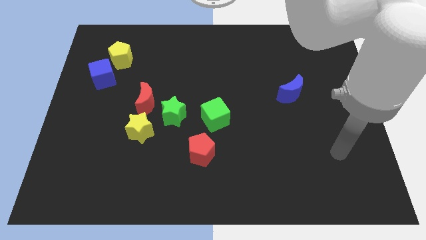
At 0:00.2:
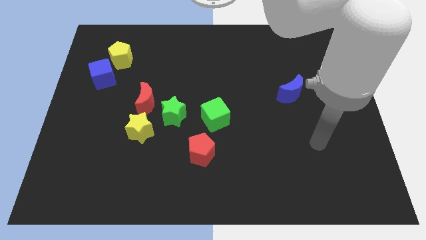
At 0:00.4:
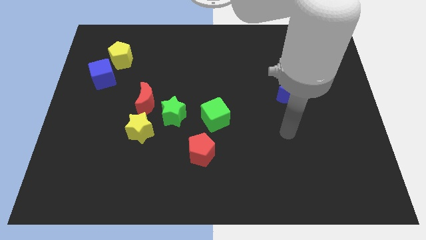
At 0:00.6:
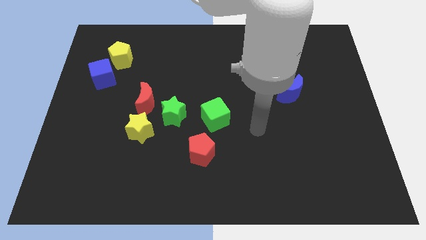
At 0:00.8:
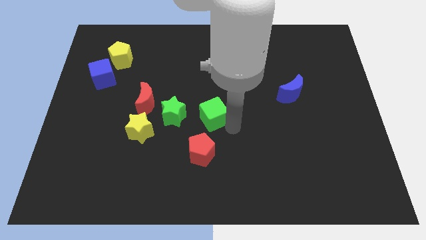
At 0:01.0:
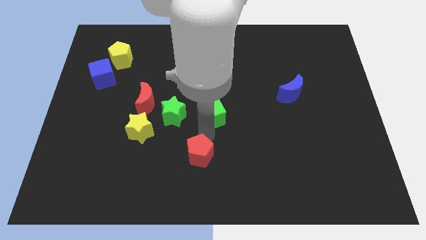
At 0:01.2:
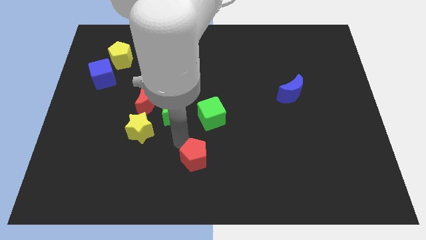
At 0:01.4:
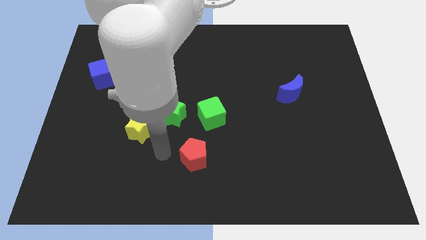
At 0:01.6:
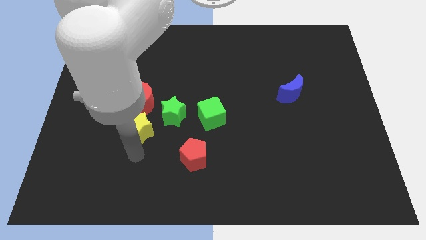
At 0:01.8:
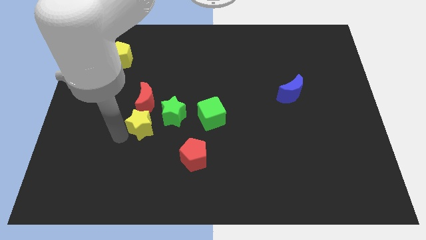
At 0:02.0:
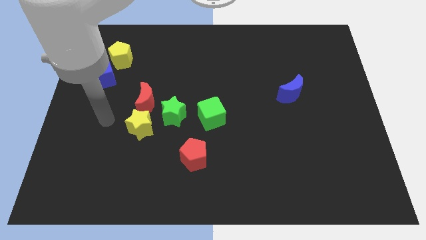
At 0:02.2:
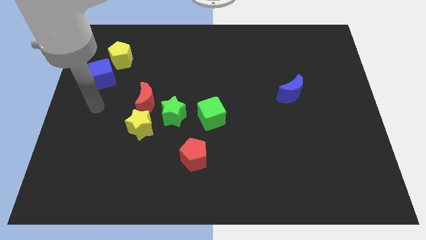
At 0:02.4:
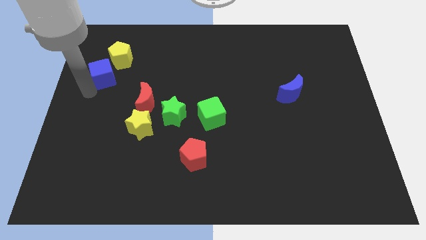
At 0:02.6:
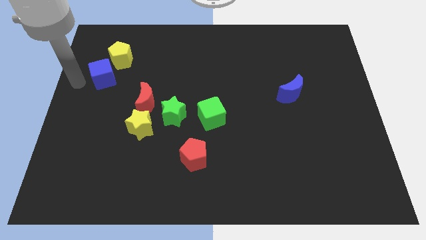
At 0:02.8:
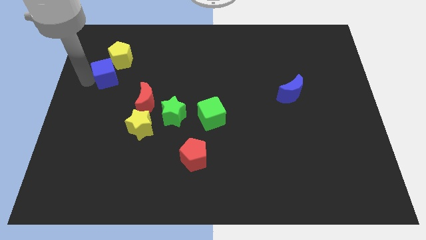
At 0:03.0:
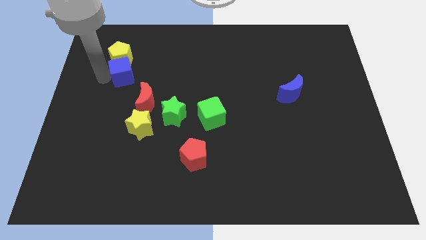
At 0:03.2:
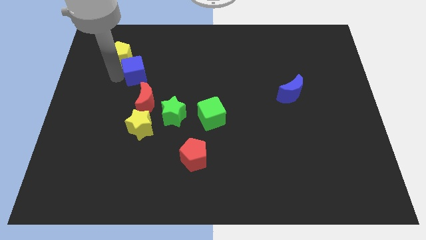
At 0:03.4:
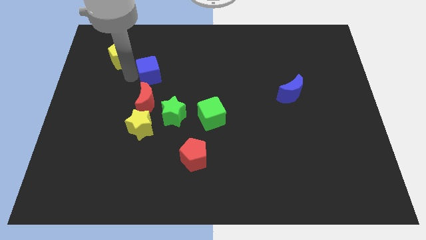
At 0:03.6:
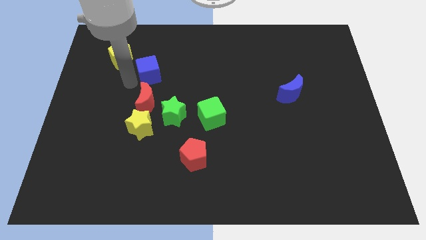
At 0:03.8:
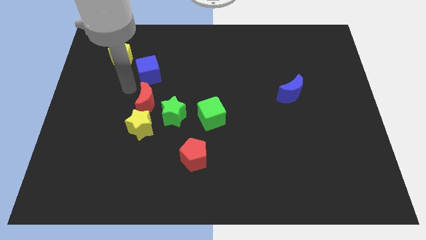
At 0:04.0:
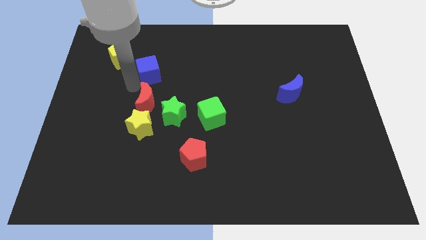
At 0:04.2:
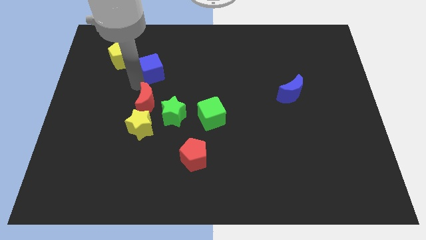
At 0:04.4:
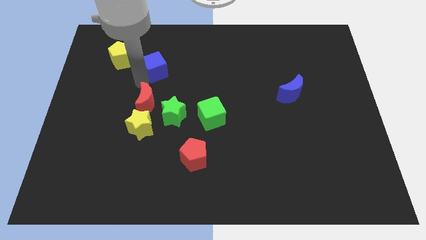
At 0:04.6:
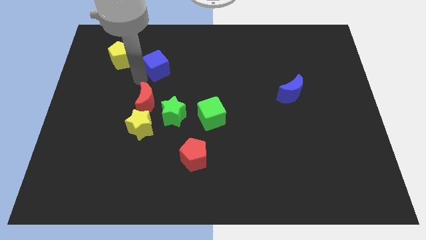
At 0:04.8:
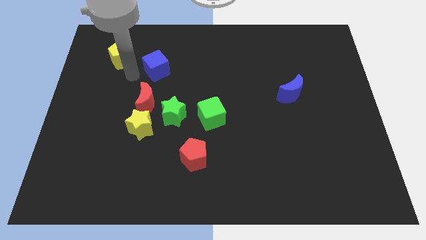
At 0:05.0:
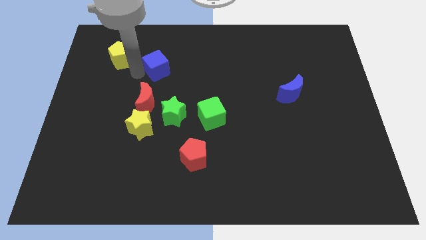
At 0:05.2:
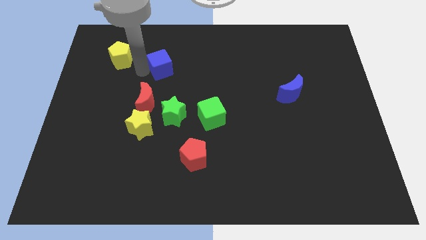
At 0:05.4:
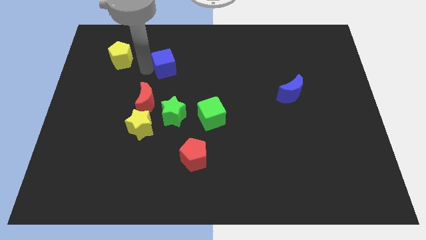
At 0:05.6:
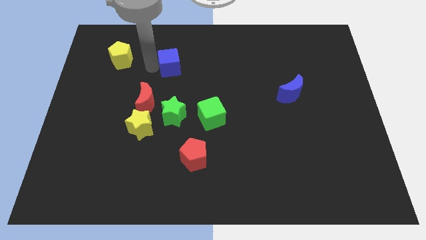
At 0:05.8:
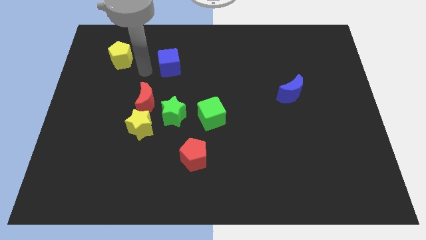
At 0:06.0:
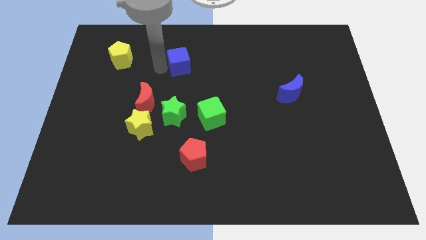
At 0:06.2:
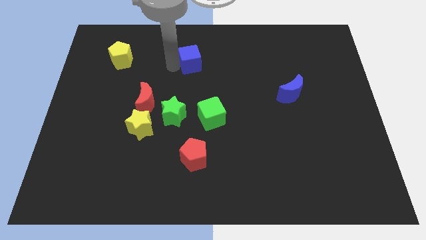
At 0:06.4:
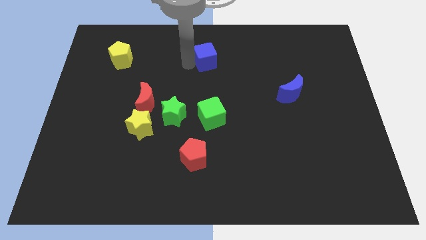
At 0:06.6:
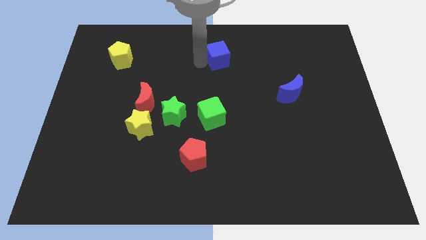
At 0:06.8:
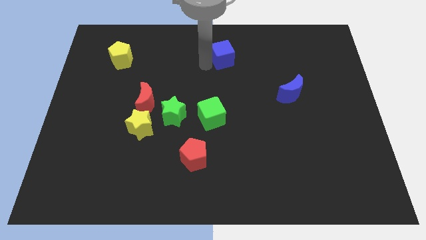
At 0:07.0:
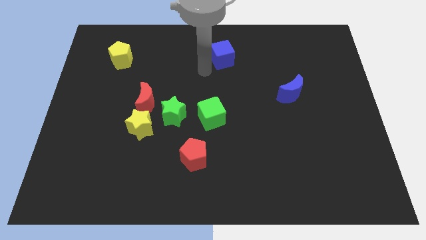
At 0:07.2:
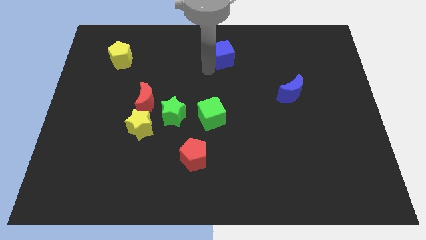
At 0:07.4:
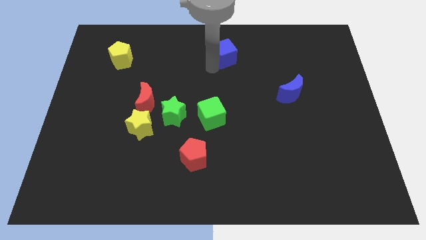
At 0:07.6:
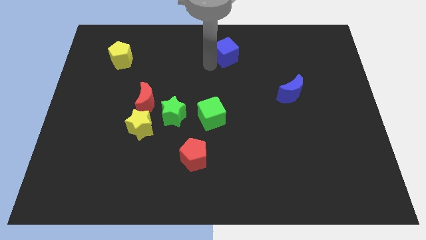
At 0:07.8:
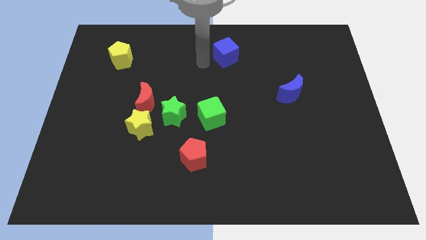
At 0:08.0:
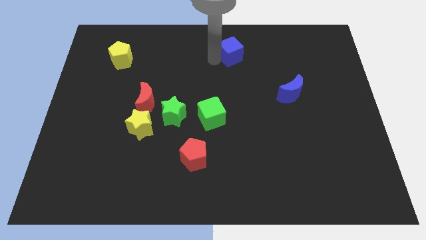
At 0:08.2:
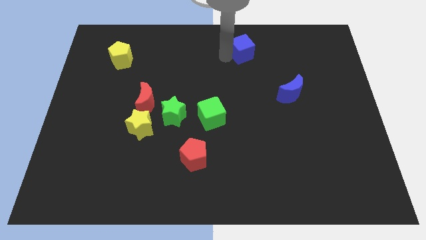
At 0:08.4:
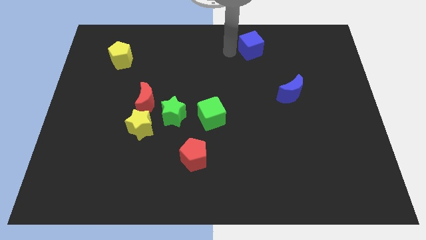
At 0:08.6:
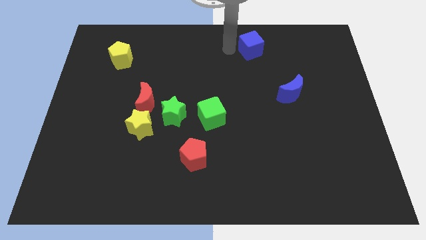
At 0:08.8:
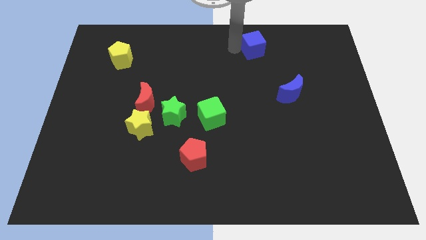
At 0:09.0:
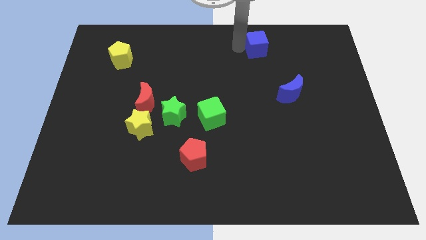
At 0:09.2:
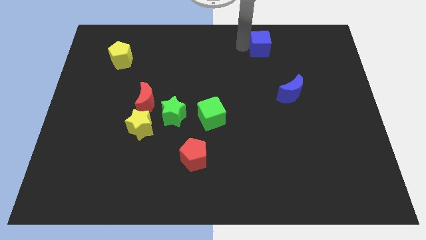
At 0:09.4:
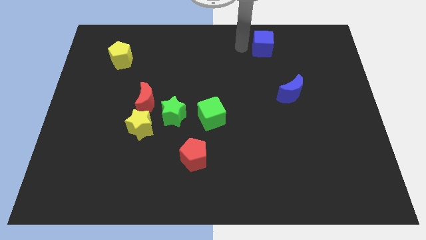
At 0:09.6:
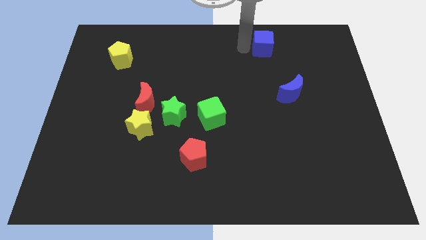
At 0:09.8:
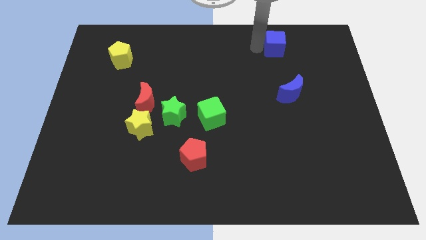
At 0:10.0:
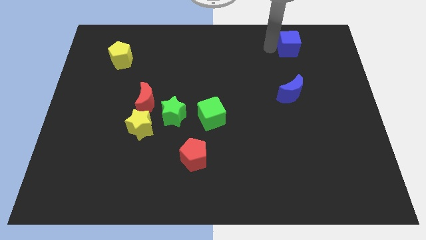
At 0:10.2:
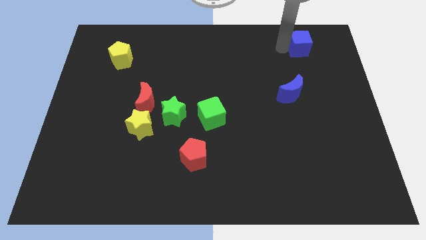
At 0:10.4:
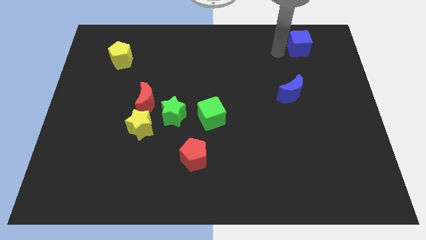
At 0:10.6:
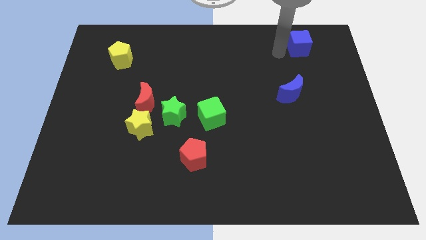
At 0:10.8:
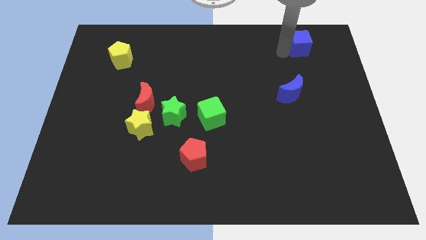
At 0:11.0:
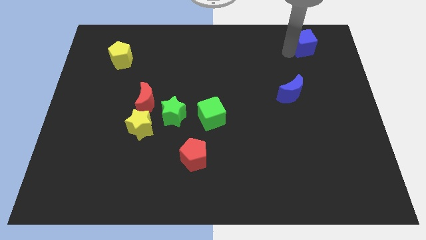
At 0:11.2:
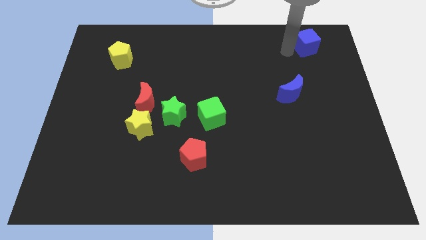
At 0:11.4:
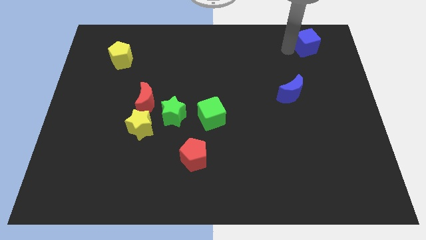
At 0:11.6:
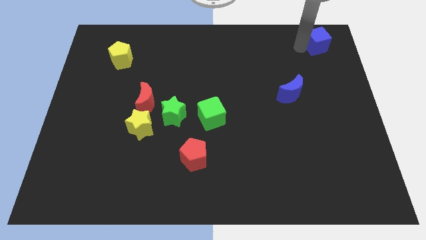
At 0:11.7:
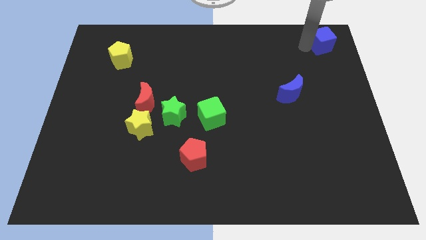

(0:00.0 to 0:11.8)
move the blue cube to the upper right corner

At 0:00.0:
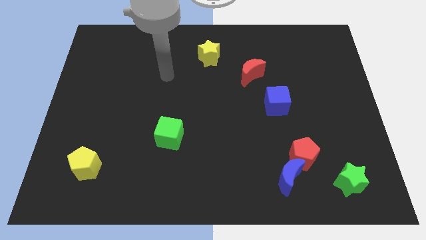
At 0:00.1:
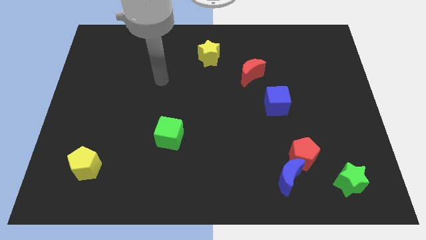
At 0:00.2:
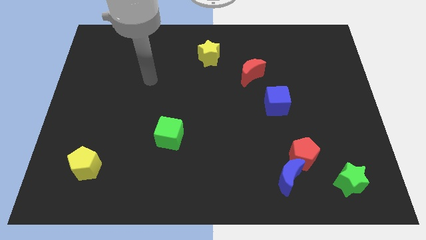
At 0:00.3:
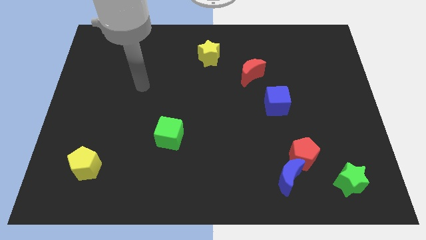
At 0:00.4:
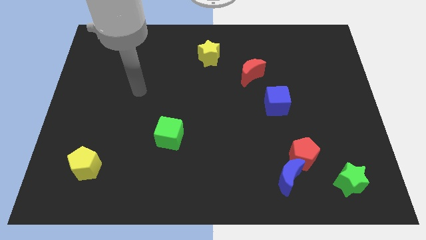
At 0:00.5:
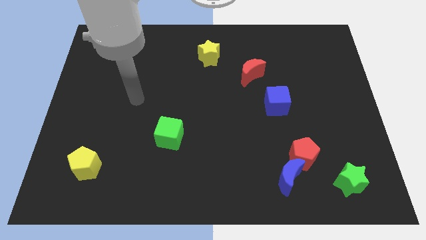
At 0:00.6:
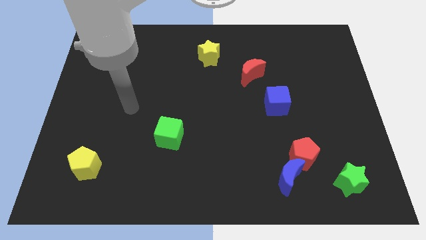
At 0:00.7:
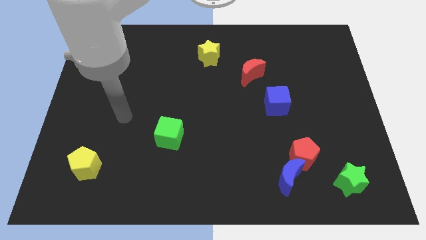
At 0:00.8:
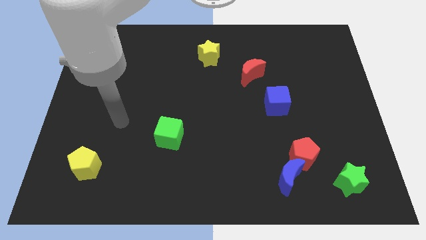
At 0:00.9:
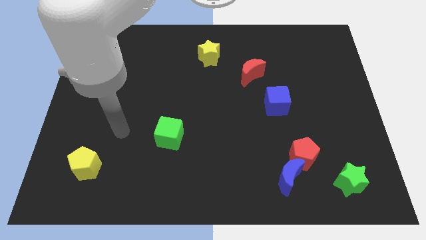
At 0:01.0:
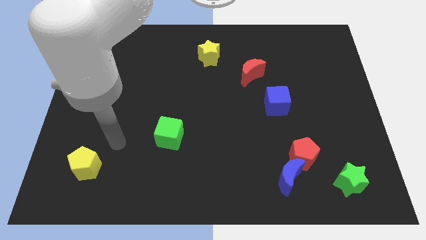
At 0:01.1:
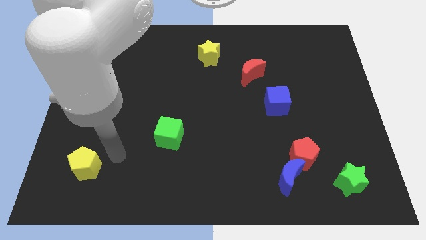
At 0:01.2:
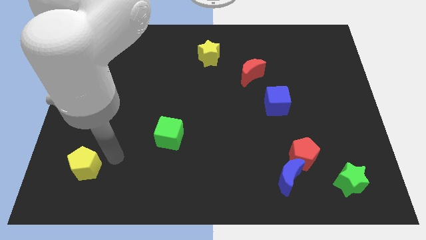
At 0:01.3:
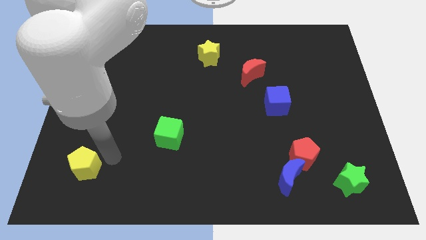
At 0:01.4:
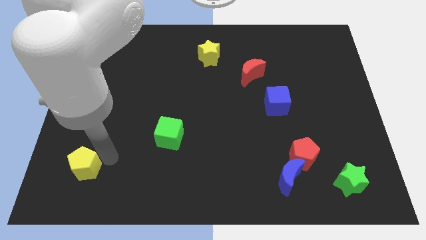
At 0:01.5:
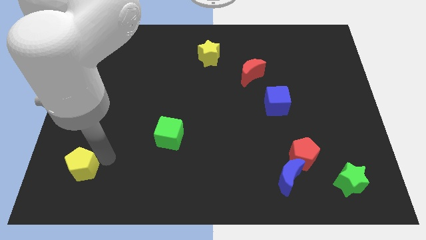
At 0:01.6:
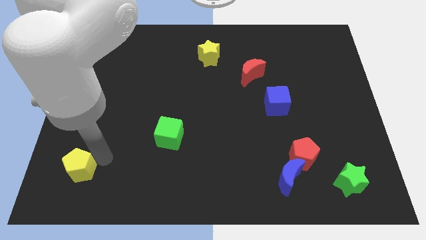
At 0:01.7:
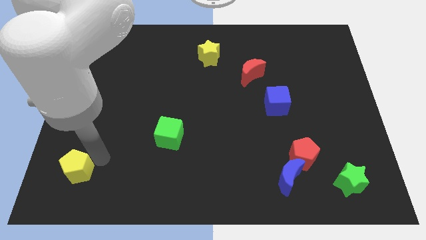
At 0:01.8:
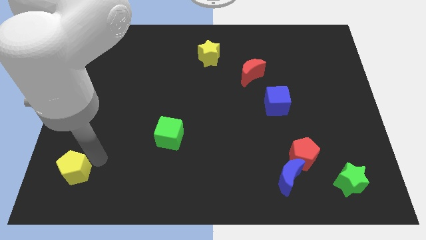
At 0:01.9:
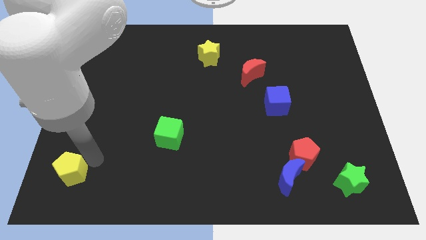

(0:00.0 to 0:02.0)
put the yellow pentagon to the bottom left

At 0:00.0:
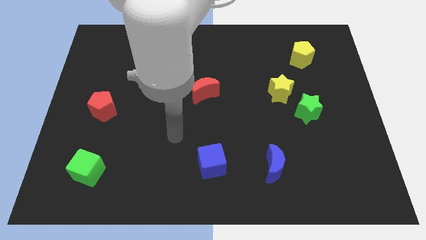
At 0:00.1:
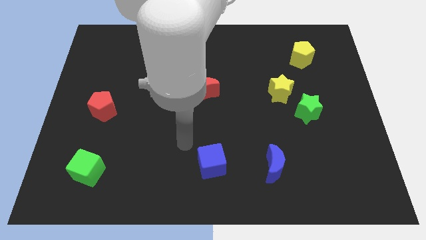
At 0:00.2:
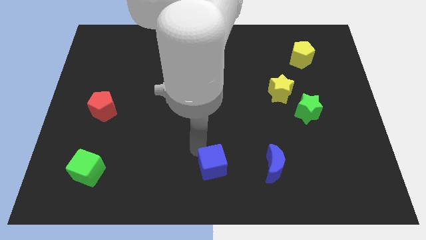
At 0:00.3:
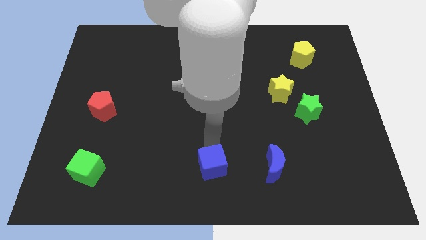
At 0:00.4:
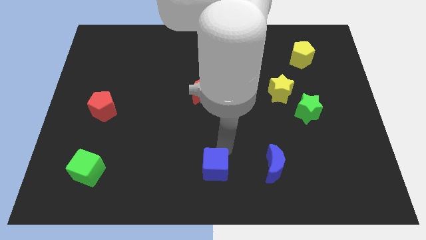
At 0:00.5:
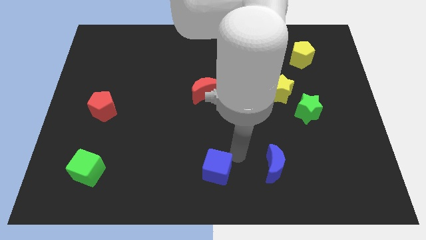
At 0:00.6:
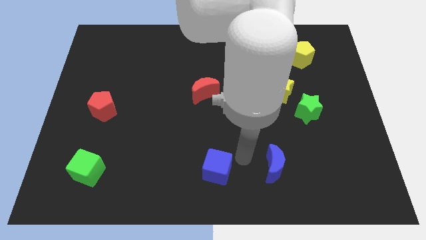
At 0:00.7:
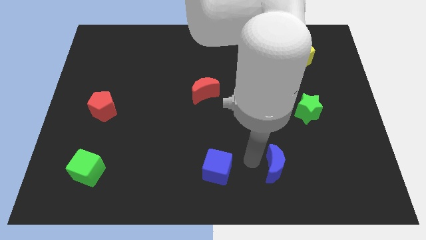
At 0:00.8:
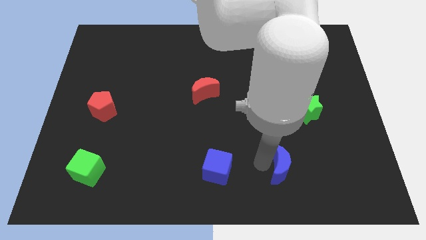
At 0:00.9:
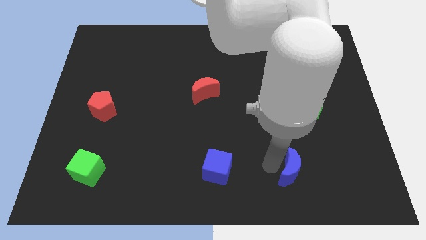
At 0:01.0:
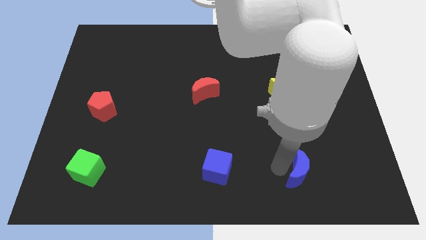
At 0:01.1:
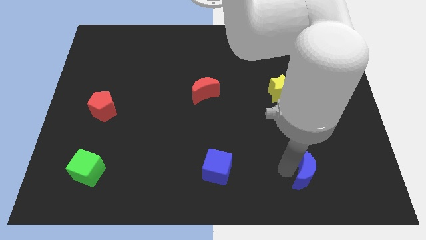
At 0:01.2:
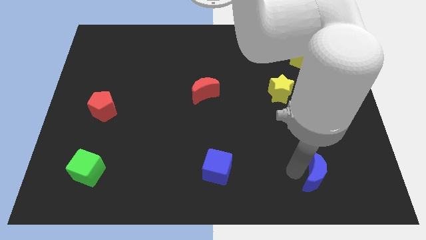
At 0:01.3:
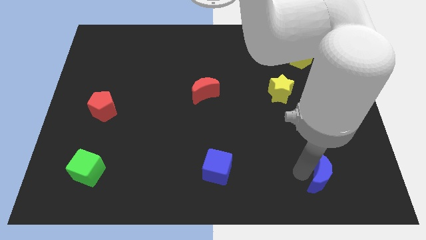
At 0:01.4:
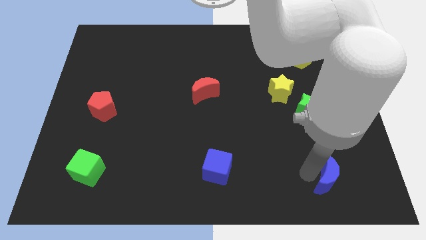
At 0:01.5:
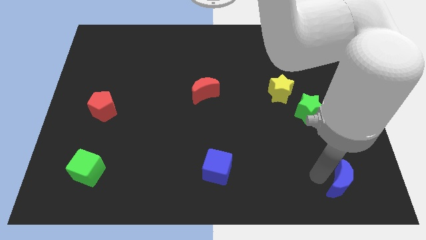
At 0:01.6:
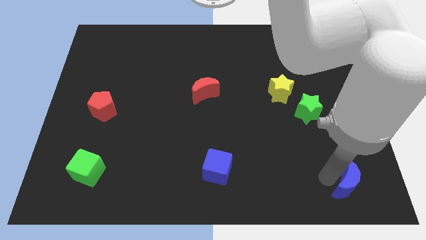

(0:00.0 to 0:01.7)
slide the blue moon to the bottom right corner
